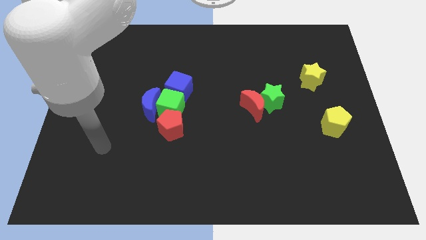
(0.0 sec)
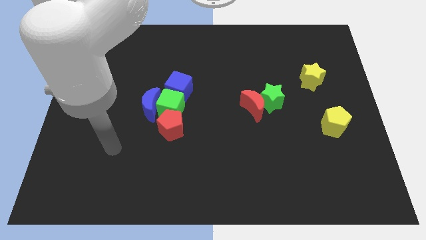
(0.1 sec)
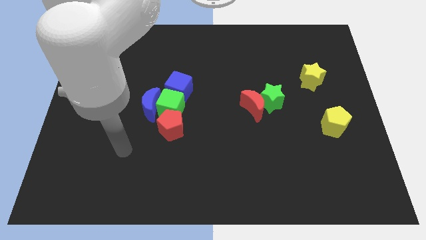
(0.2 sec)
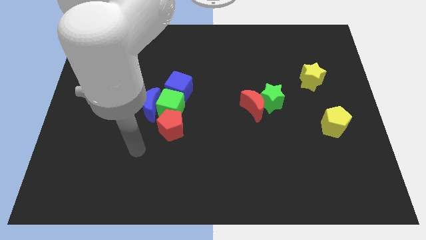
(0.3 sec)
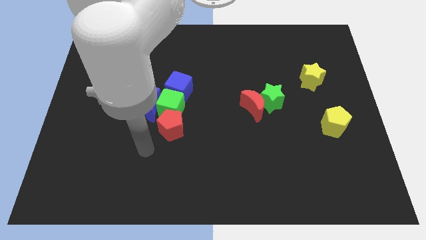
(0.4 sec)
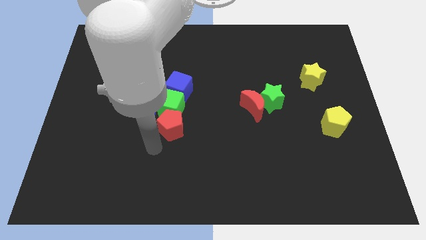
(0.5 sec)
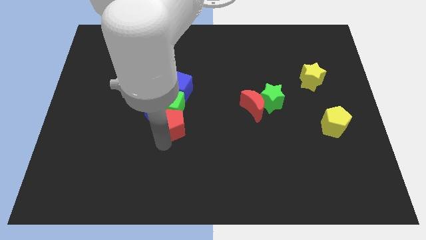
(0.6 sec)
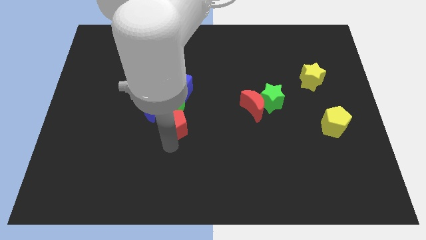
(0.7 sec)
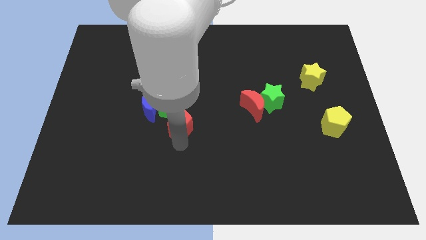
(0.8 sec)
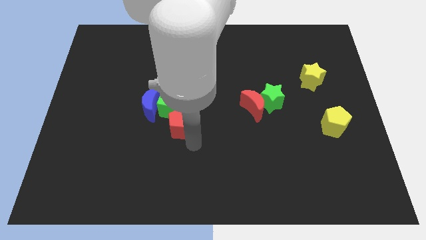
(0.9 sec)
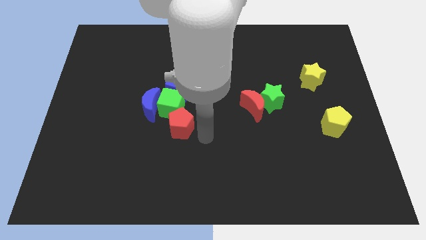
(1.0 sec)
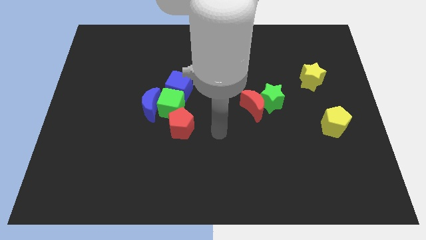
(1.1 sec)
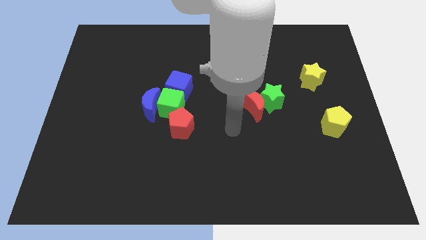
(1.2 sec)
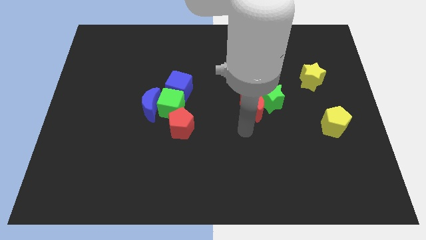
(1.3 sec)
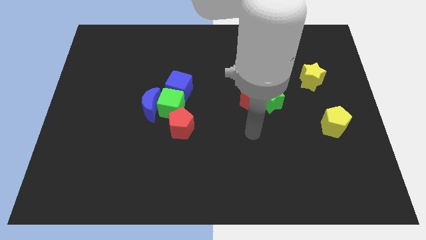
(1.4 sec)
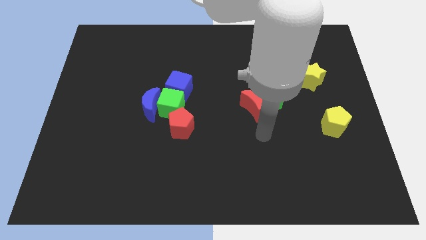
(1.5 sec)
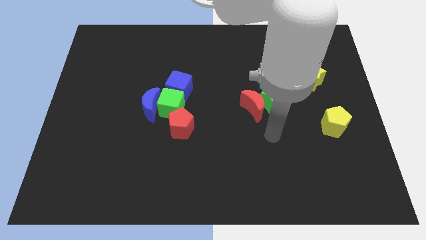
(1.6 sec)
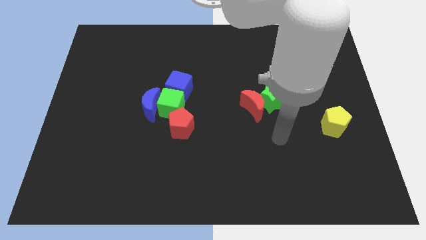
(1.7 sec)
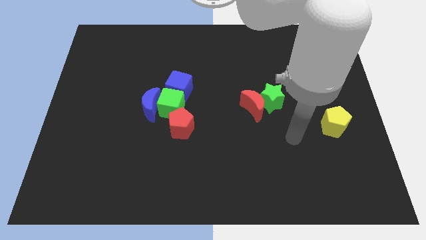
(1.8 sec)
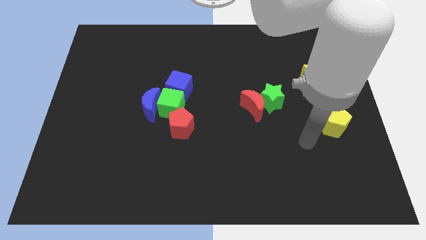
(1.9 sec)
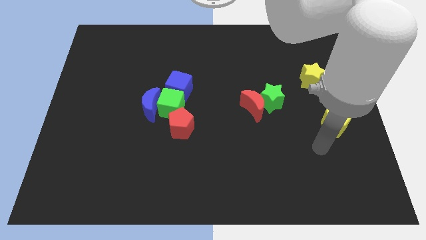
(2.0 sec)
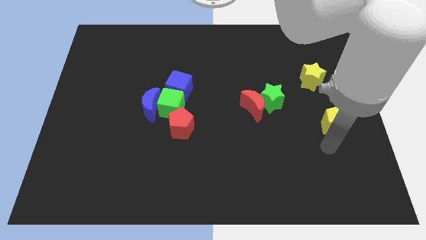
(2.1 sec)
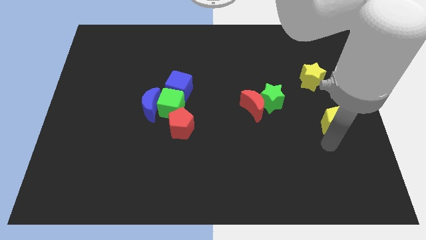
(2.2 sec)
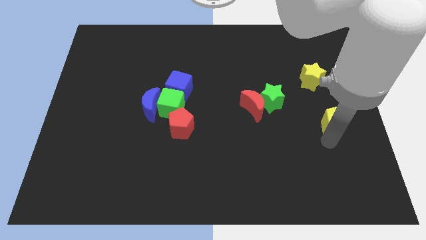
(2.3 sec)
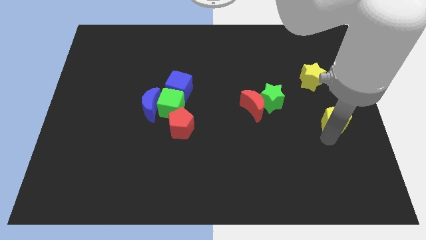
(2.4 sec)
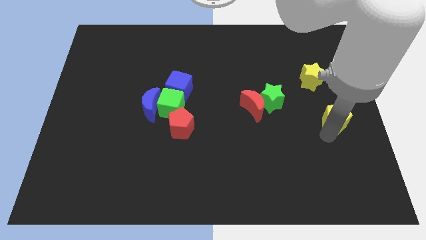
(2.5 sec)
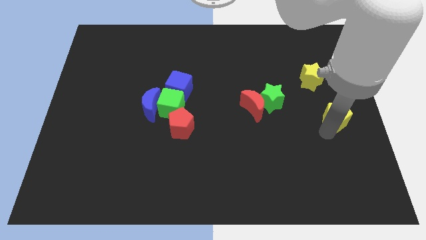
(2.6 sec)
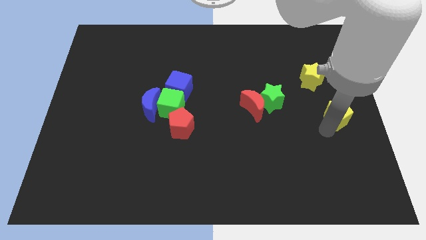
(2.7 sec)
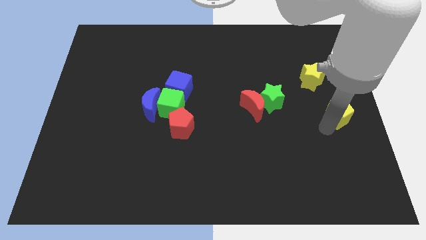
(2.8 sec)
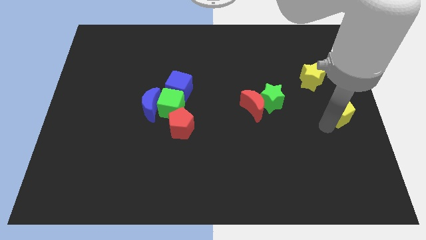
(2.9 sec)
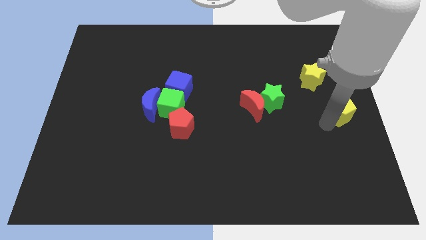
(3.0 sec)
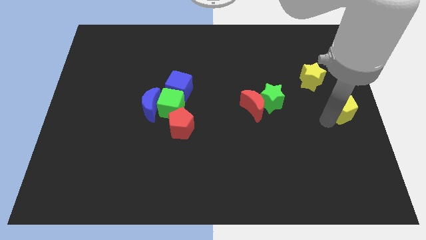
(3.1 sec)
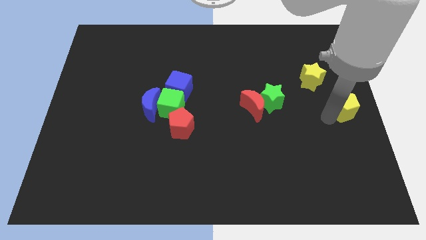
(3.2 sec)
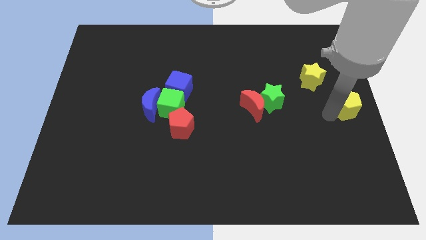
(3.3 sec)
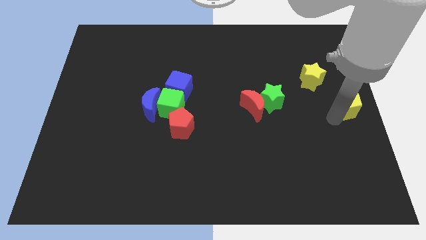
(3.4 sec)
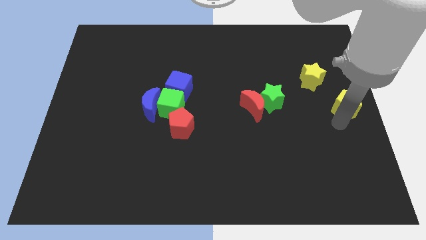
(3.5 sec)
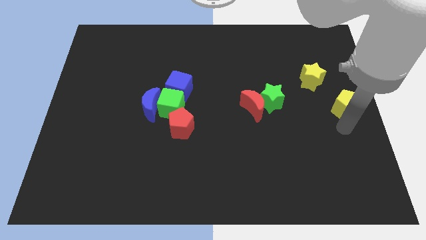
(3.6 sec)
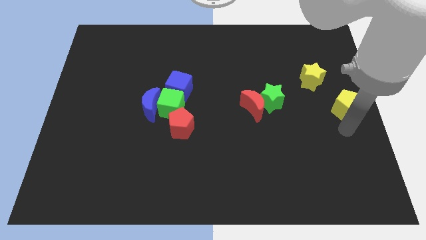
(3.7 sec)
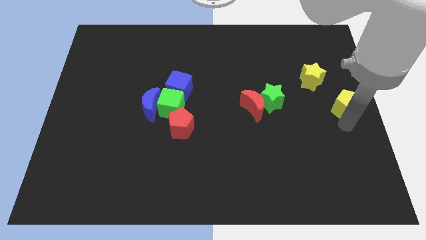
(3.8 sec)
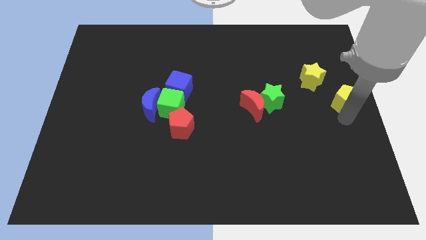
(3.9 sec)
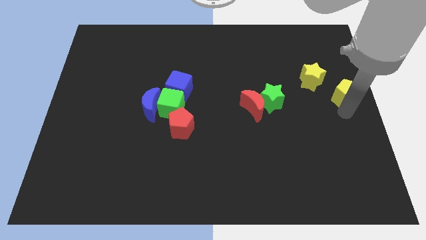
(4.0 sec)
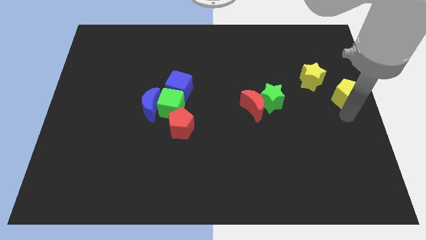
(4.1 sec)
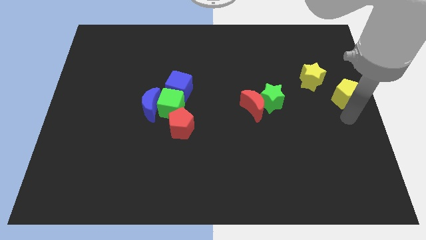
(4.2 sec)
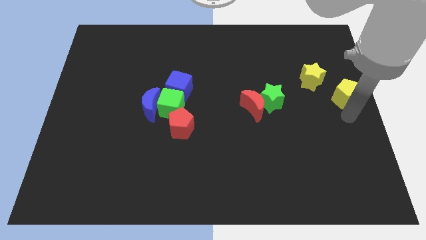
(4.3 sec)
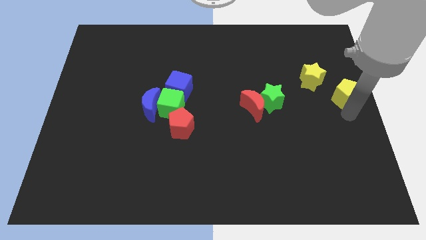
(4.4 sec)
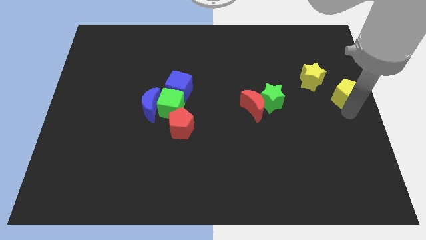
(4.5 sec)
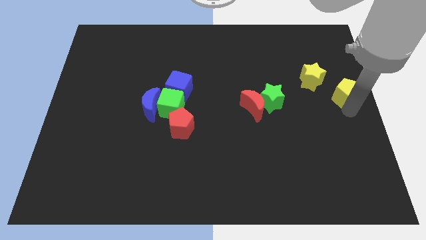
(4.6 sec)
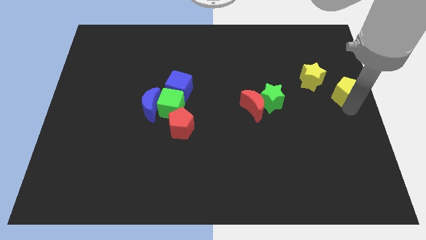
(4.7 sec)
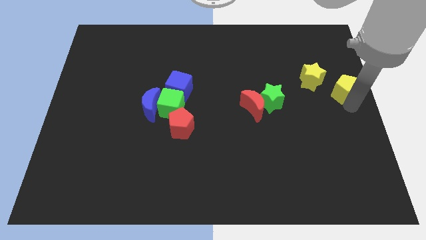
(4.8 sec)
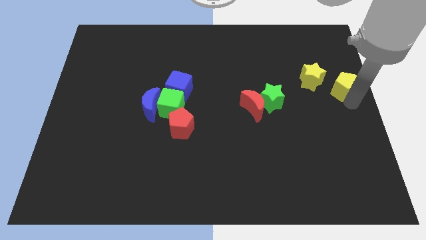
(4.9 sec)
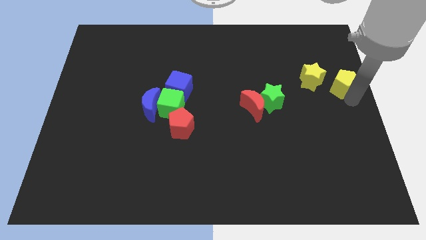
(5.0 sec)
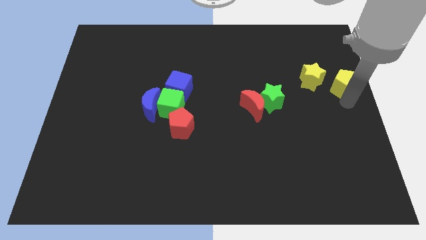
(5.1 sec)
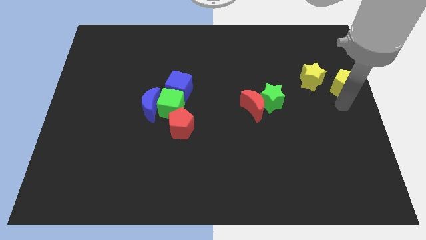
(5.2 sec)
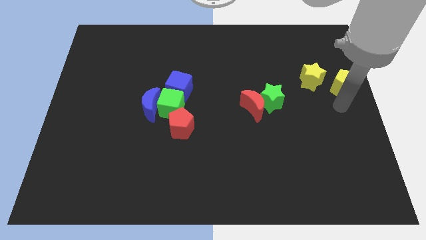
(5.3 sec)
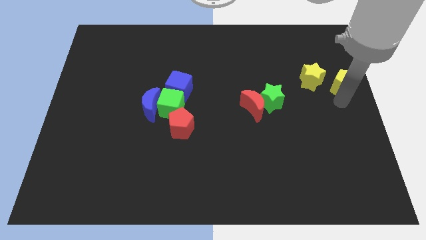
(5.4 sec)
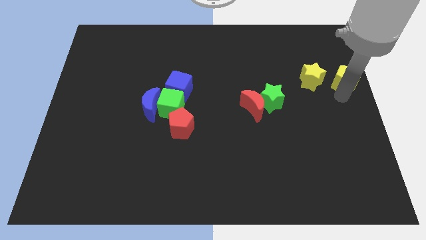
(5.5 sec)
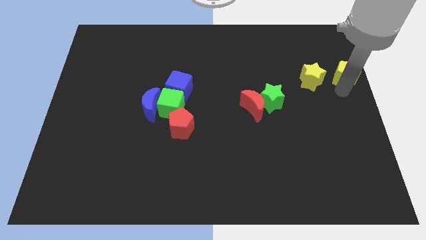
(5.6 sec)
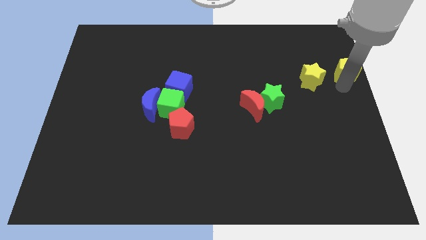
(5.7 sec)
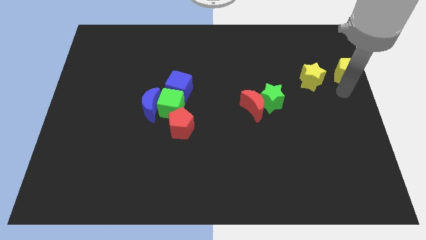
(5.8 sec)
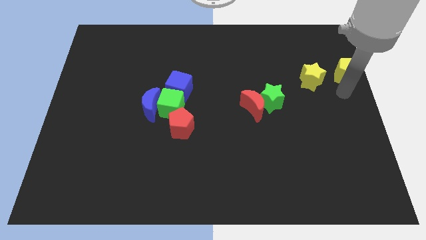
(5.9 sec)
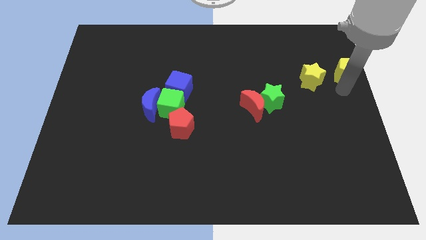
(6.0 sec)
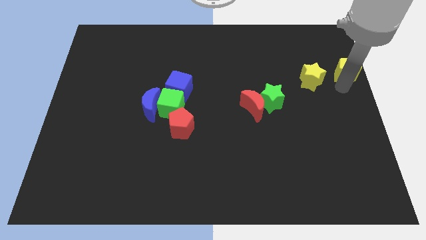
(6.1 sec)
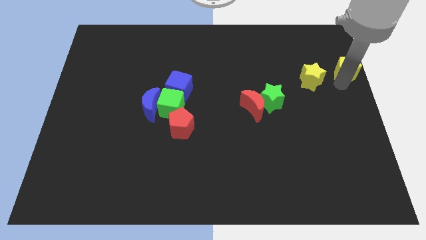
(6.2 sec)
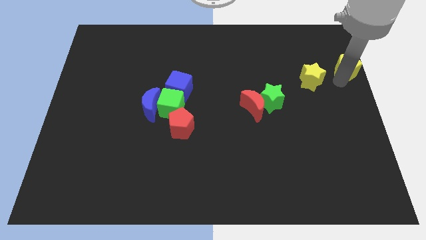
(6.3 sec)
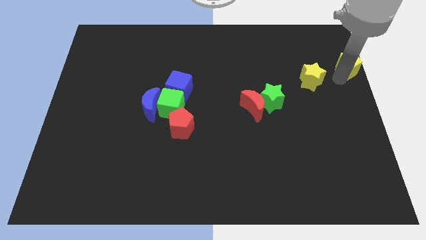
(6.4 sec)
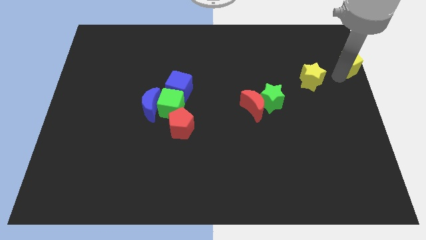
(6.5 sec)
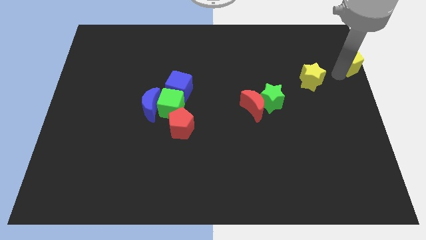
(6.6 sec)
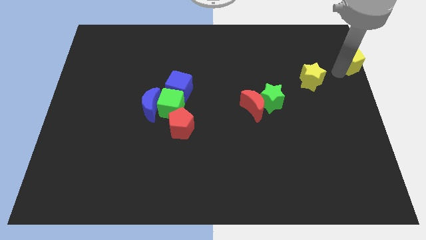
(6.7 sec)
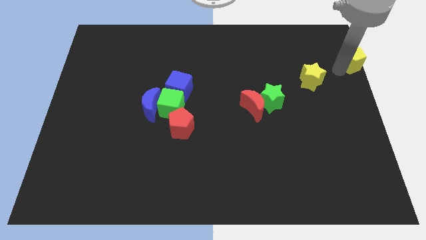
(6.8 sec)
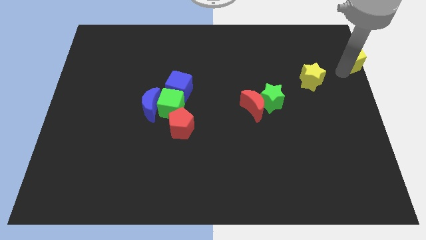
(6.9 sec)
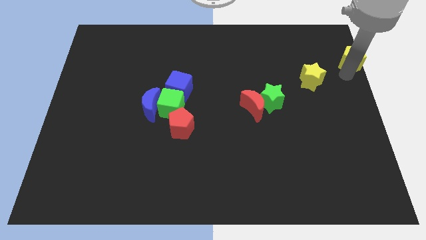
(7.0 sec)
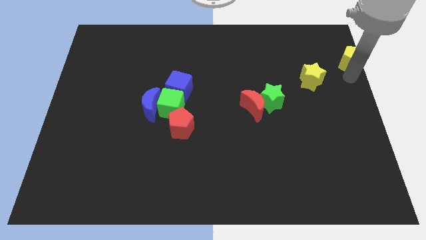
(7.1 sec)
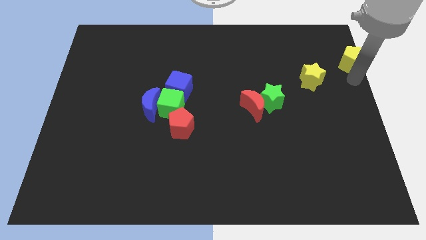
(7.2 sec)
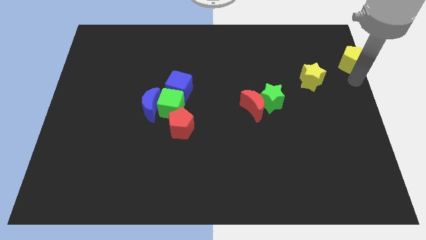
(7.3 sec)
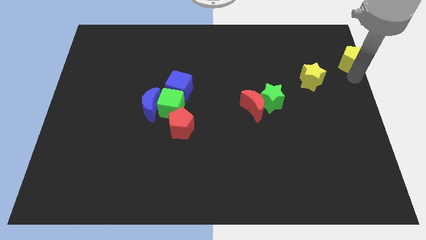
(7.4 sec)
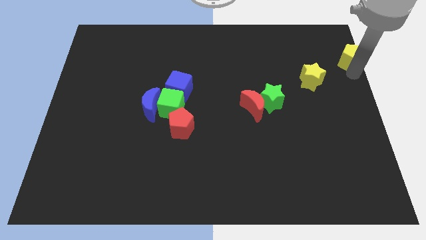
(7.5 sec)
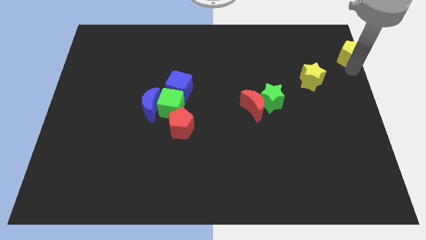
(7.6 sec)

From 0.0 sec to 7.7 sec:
put the yellow pentagon to the top right of the board
